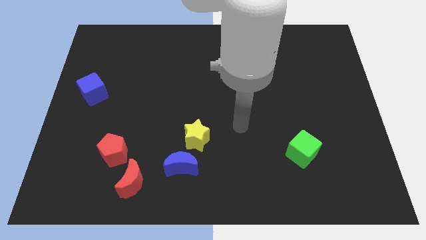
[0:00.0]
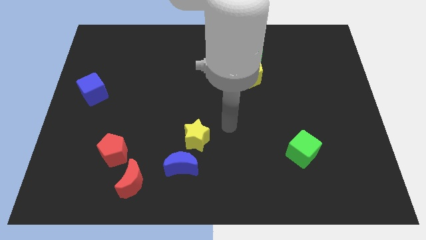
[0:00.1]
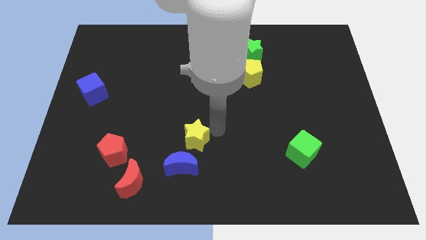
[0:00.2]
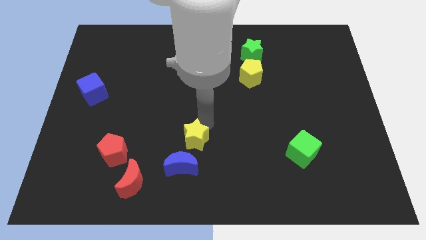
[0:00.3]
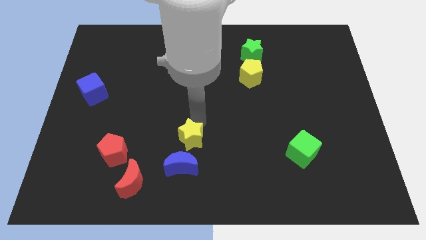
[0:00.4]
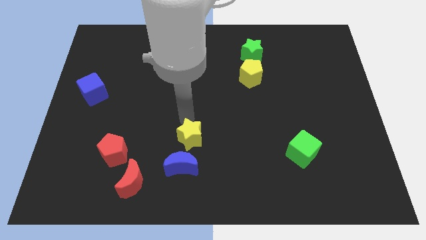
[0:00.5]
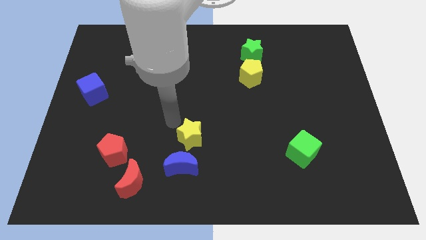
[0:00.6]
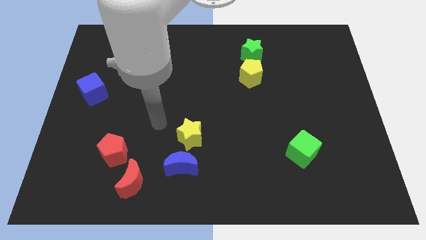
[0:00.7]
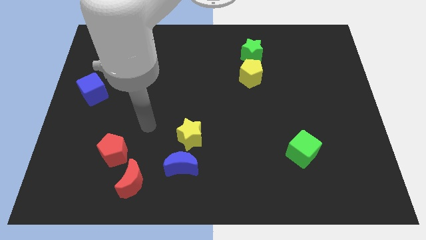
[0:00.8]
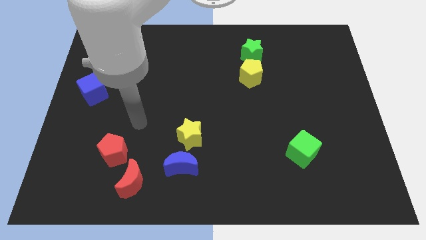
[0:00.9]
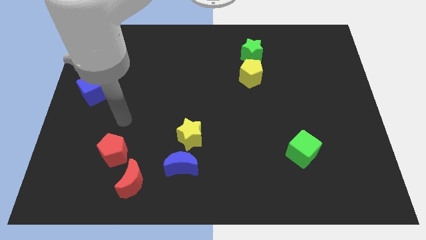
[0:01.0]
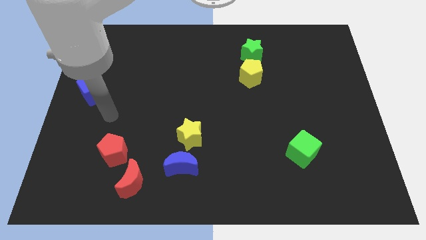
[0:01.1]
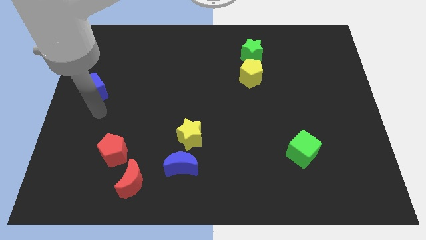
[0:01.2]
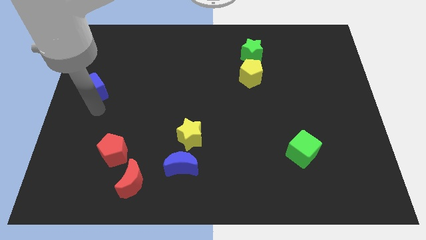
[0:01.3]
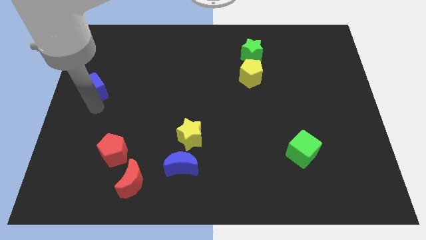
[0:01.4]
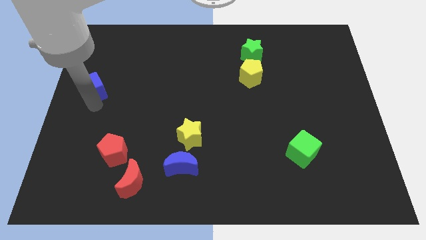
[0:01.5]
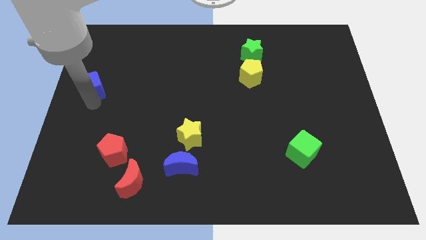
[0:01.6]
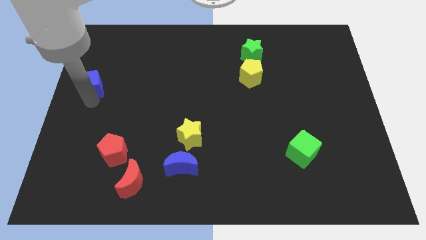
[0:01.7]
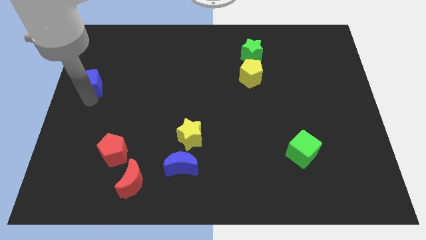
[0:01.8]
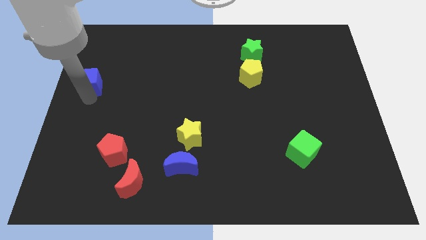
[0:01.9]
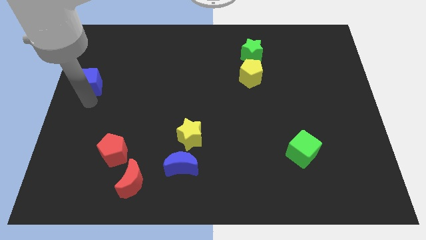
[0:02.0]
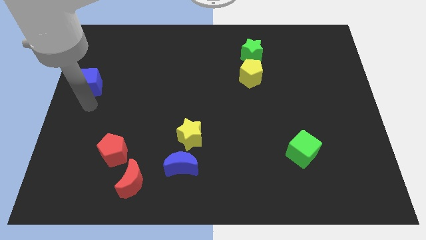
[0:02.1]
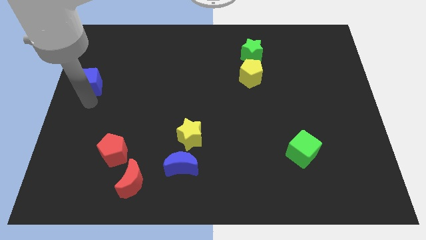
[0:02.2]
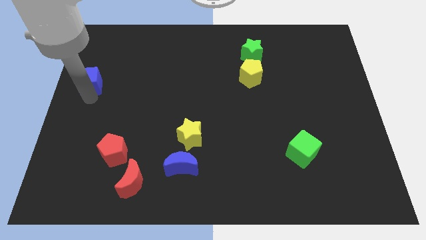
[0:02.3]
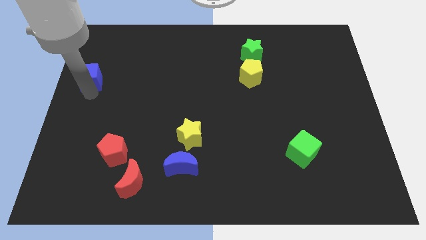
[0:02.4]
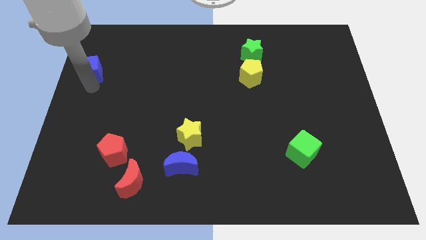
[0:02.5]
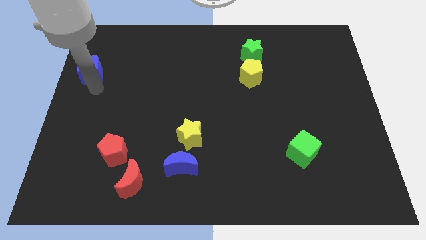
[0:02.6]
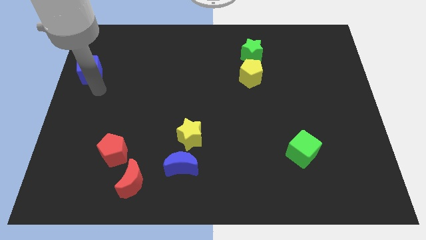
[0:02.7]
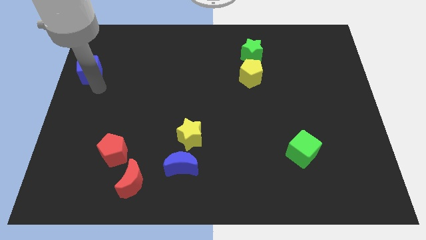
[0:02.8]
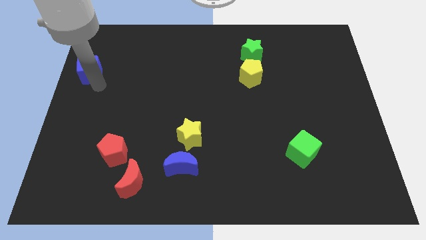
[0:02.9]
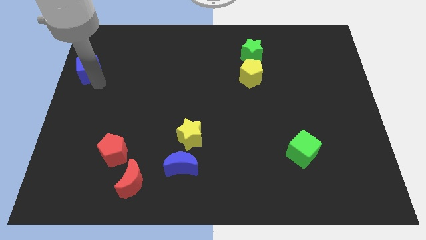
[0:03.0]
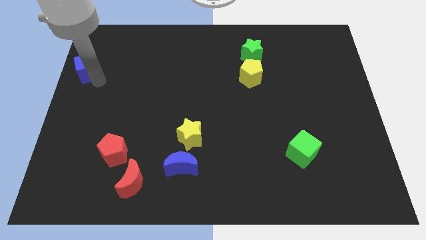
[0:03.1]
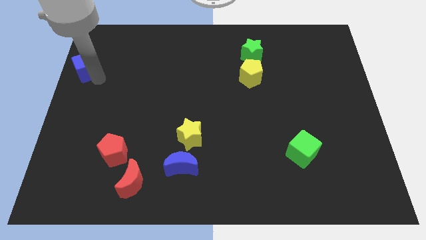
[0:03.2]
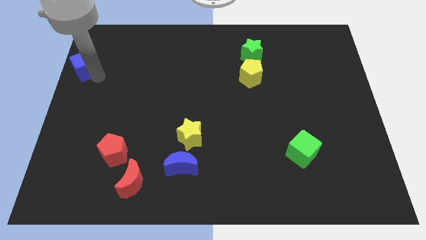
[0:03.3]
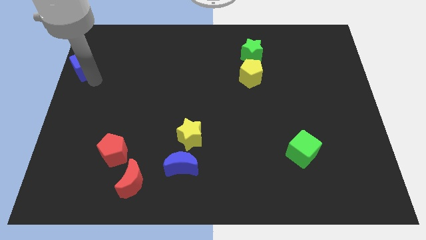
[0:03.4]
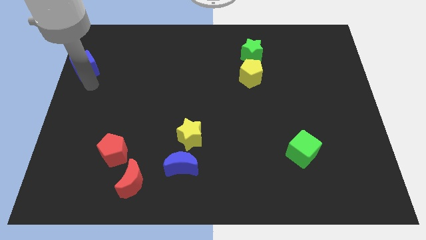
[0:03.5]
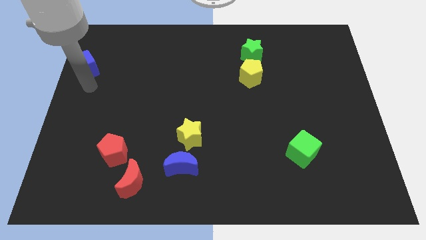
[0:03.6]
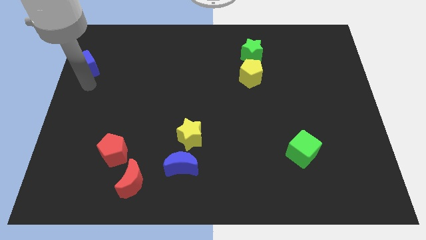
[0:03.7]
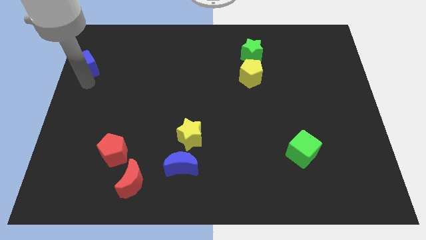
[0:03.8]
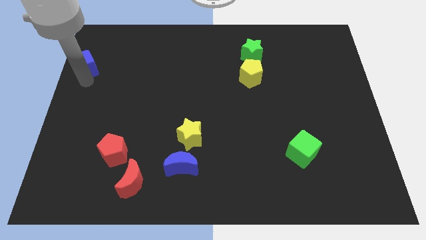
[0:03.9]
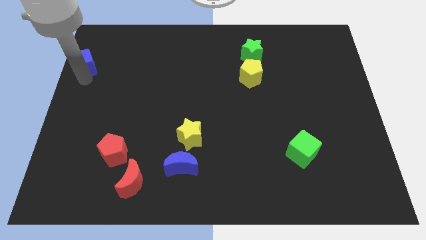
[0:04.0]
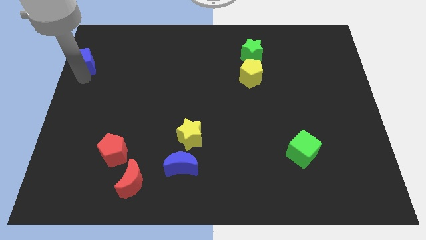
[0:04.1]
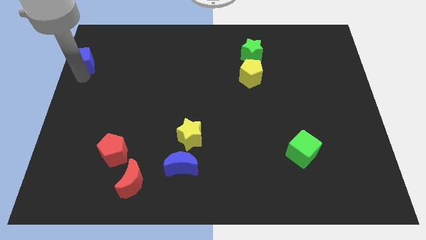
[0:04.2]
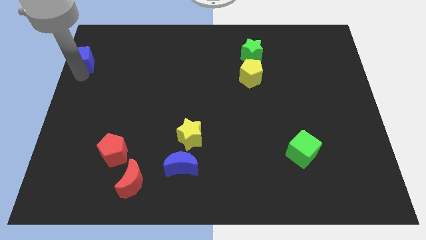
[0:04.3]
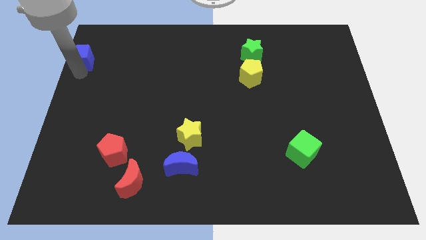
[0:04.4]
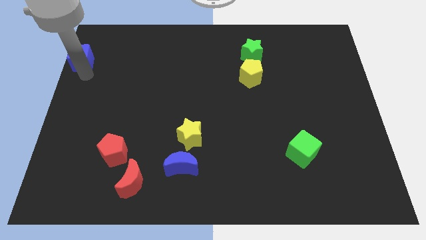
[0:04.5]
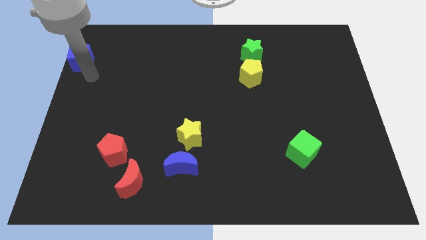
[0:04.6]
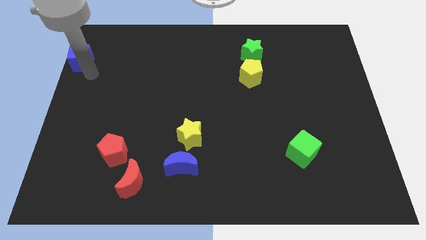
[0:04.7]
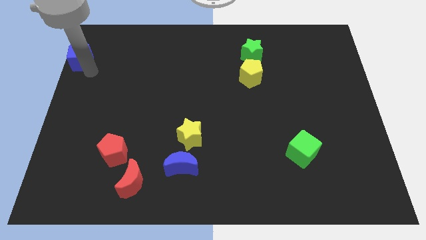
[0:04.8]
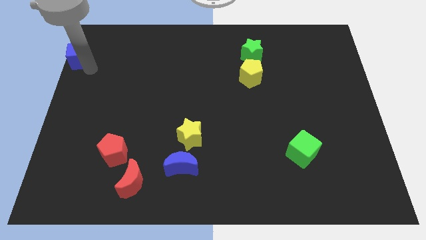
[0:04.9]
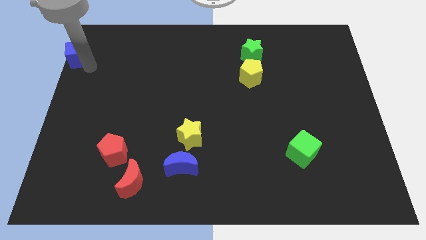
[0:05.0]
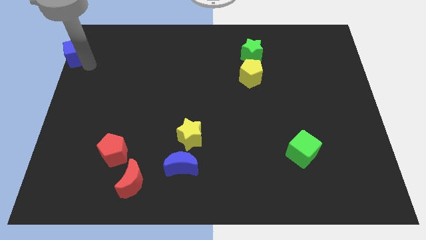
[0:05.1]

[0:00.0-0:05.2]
push the blue cube to the upper left corner
